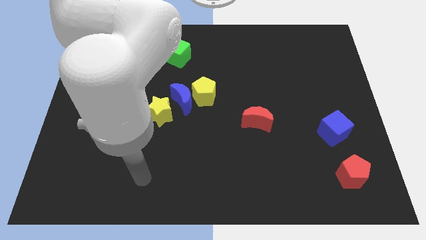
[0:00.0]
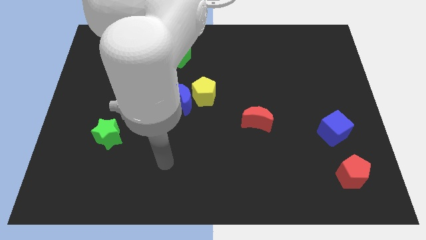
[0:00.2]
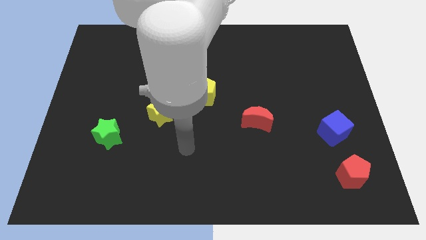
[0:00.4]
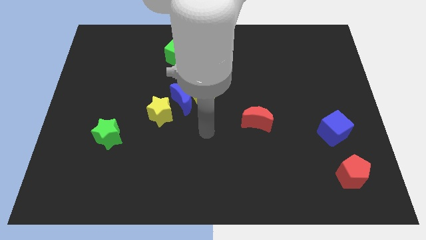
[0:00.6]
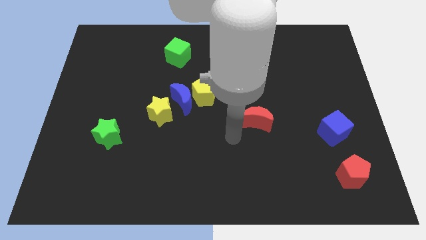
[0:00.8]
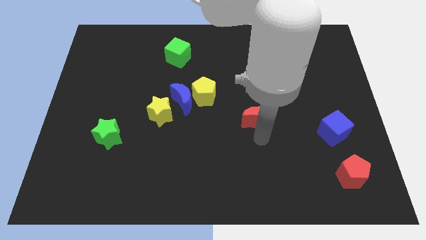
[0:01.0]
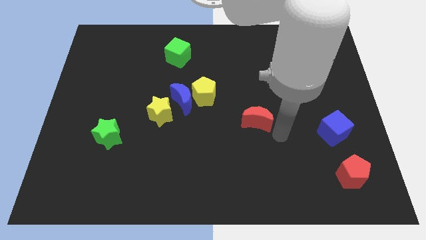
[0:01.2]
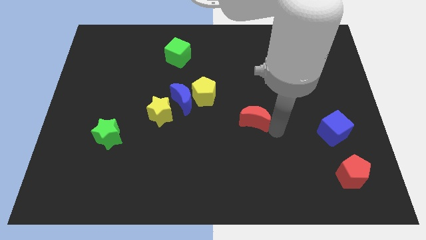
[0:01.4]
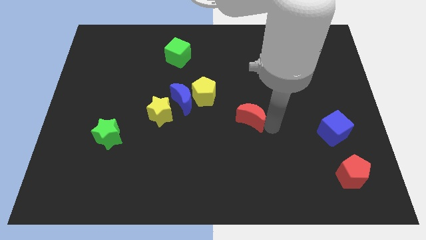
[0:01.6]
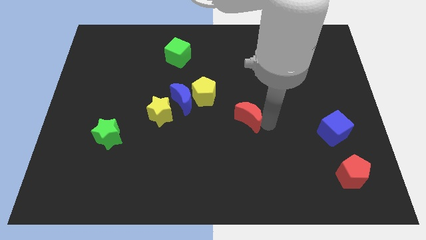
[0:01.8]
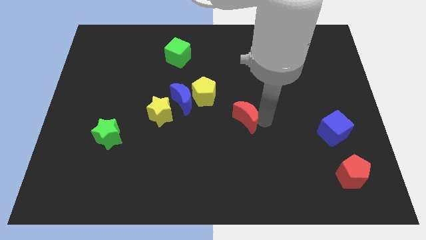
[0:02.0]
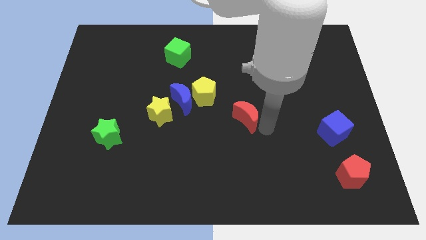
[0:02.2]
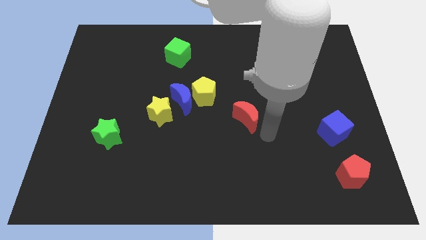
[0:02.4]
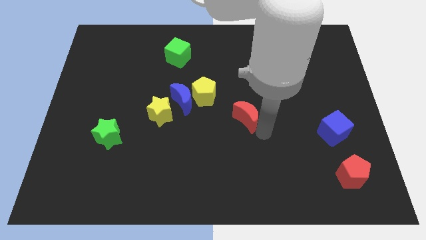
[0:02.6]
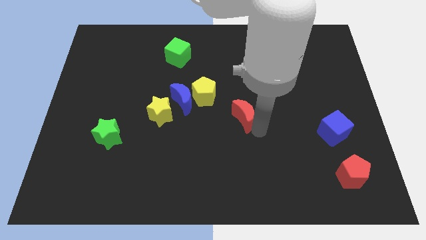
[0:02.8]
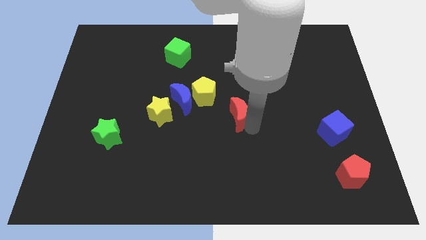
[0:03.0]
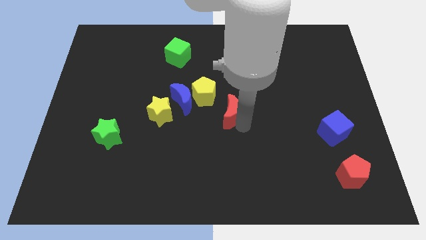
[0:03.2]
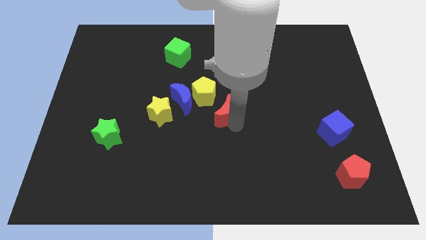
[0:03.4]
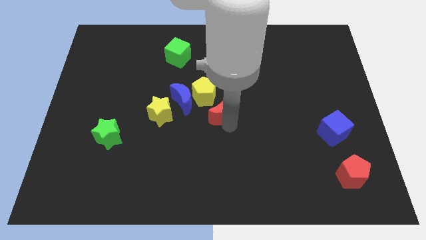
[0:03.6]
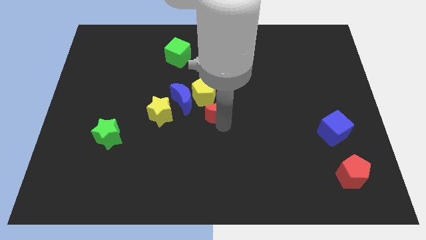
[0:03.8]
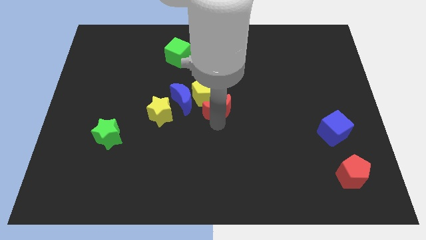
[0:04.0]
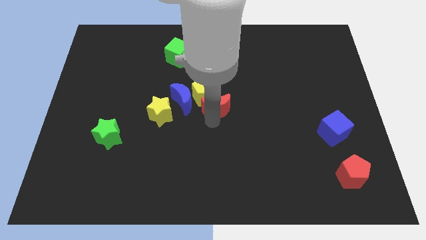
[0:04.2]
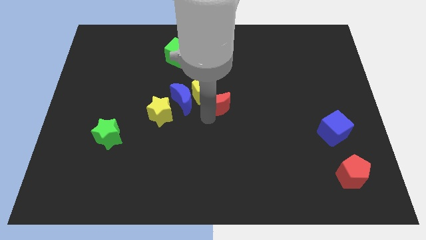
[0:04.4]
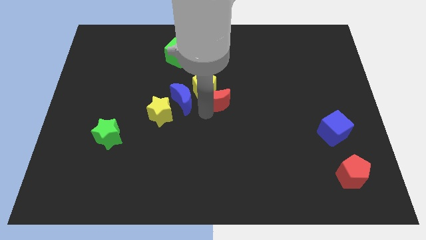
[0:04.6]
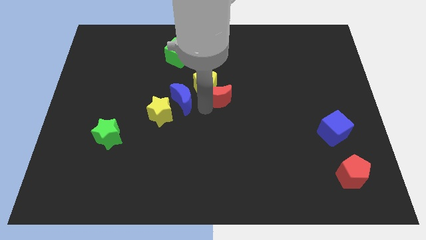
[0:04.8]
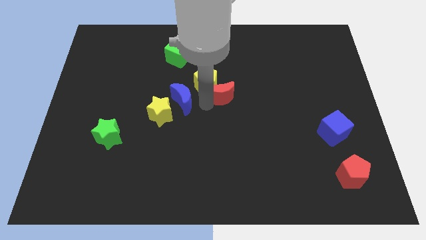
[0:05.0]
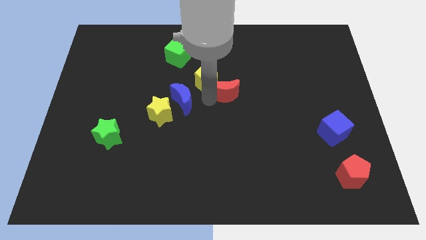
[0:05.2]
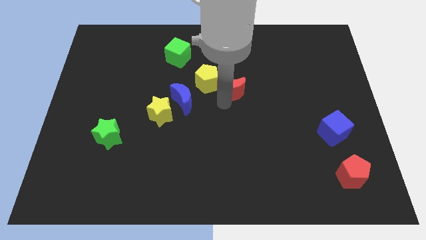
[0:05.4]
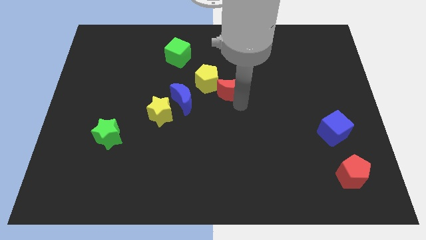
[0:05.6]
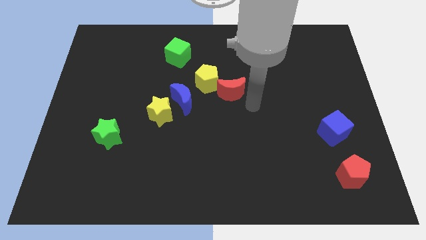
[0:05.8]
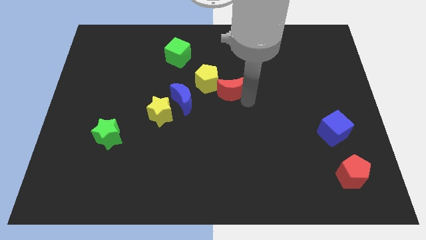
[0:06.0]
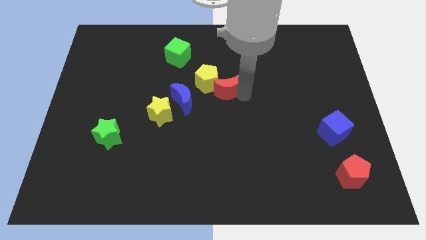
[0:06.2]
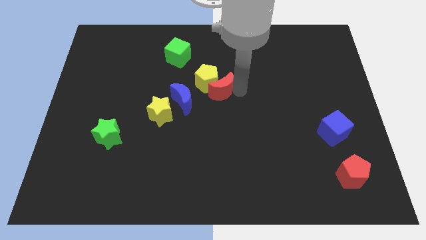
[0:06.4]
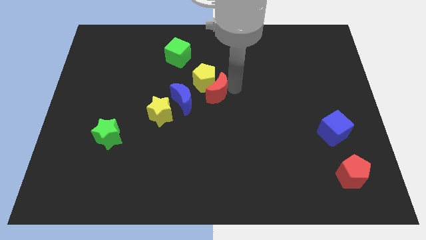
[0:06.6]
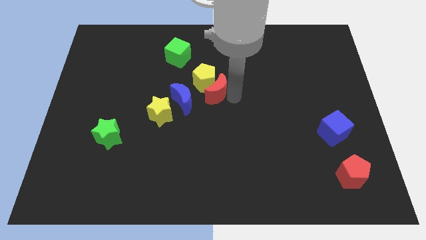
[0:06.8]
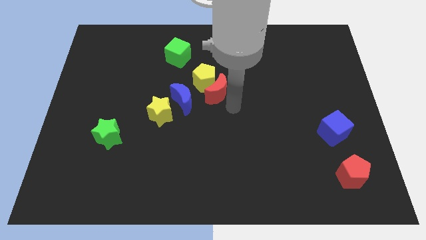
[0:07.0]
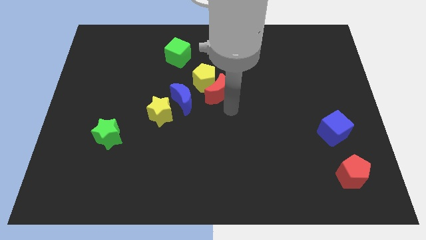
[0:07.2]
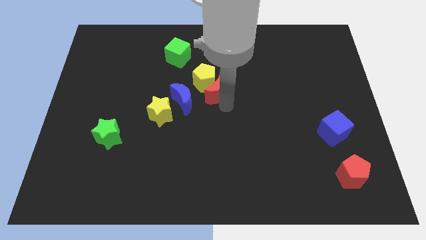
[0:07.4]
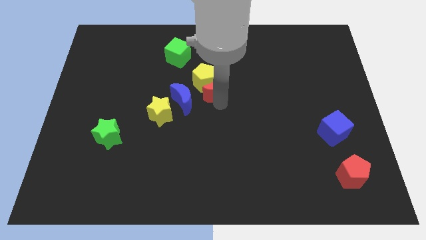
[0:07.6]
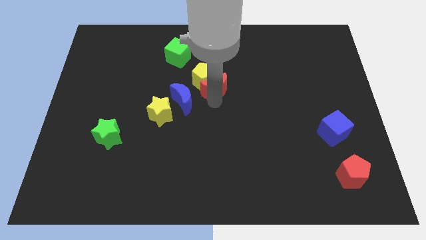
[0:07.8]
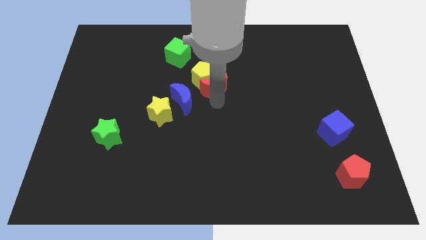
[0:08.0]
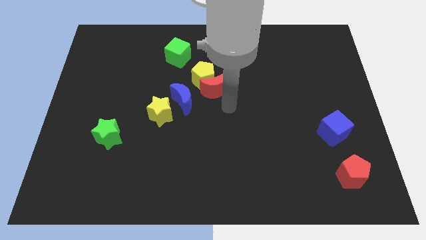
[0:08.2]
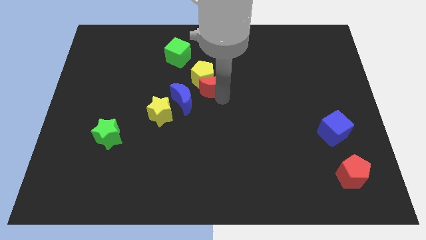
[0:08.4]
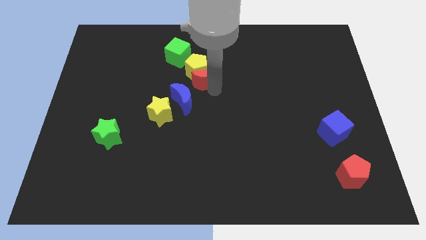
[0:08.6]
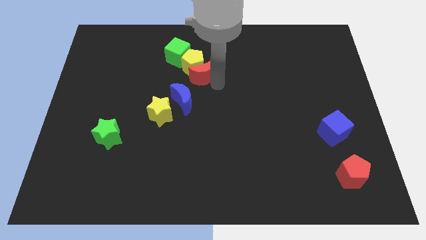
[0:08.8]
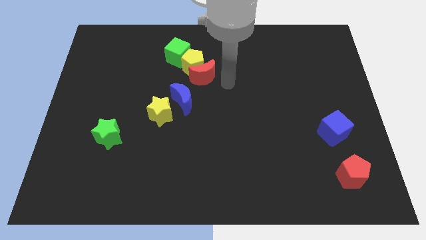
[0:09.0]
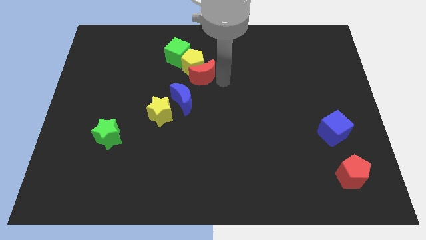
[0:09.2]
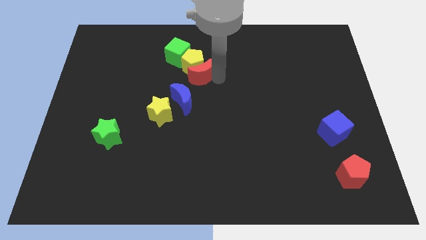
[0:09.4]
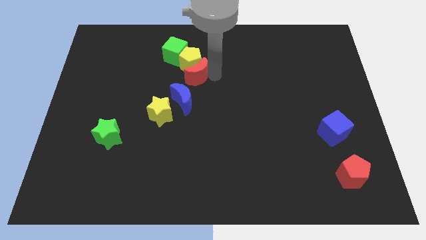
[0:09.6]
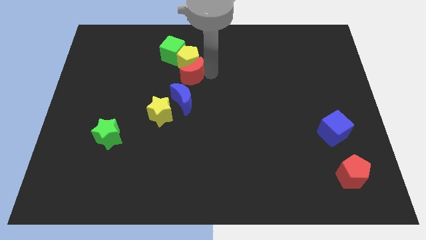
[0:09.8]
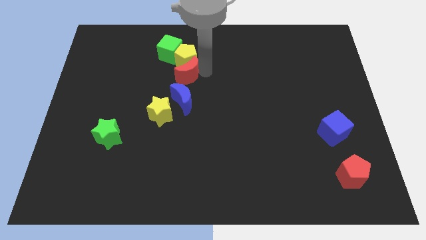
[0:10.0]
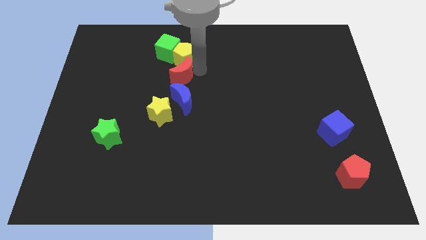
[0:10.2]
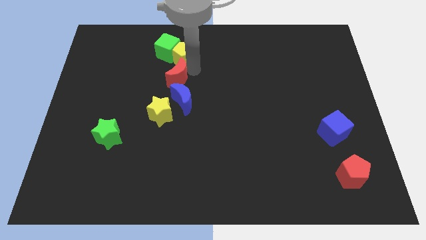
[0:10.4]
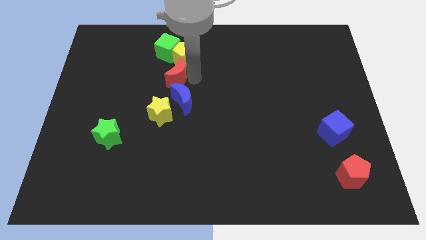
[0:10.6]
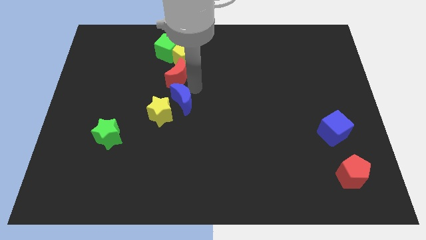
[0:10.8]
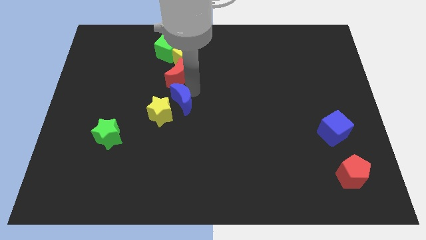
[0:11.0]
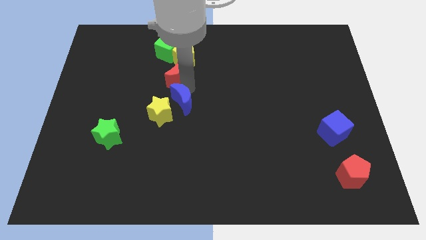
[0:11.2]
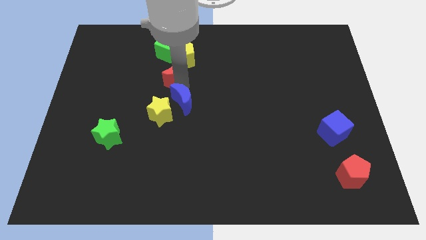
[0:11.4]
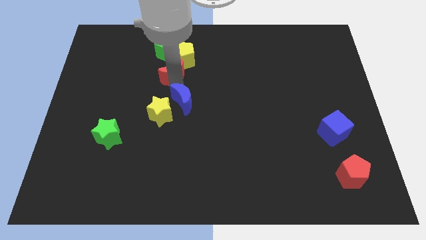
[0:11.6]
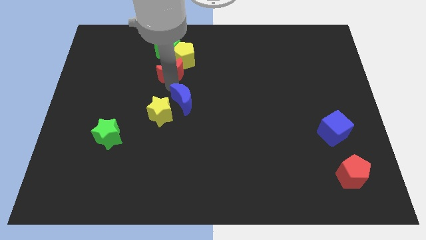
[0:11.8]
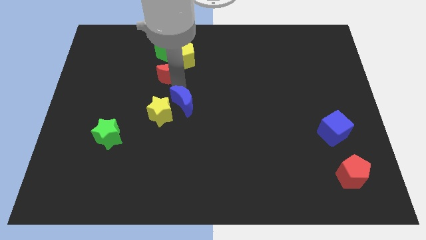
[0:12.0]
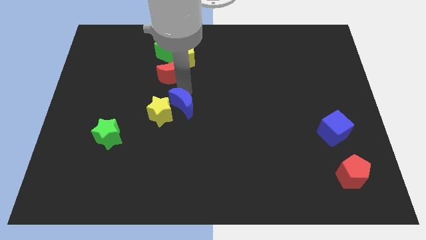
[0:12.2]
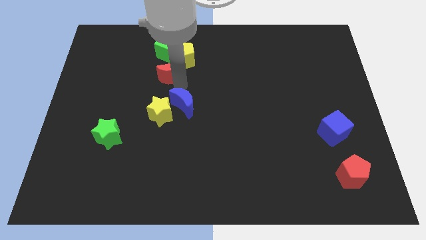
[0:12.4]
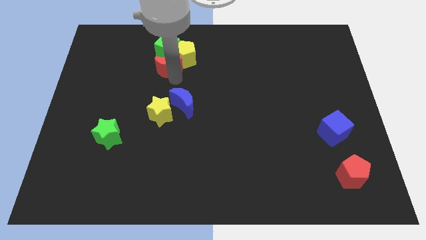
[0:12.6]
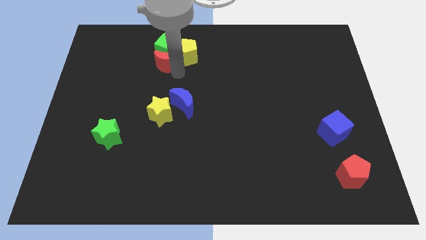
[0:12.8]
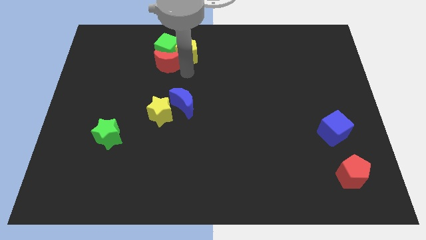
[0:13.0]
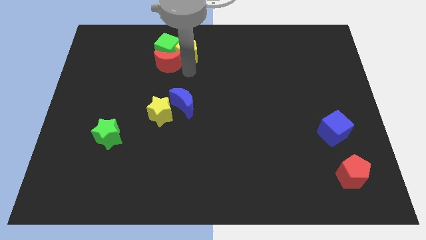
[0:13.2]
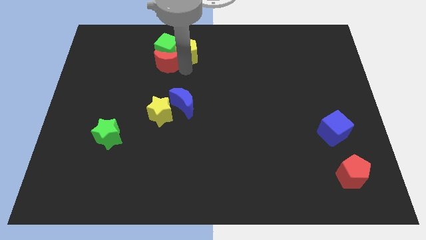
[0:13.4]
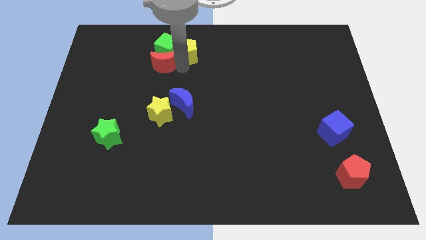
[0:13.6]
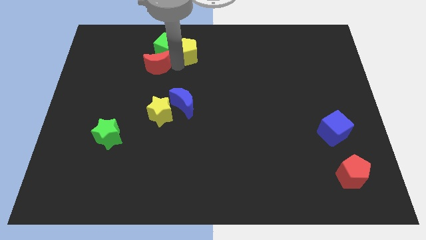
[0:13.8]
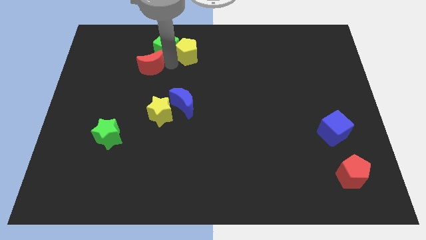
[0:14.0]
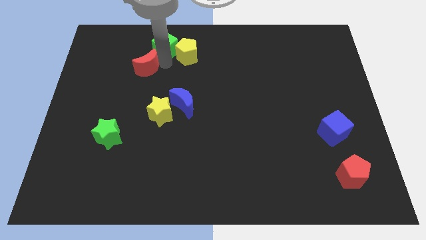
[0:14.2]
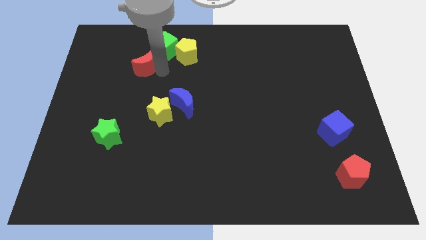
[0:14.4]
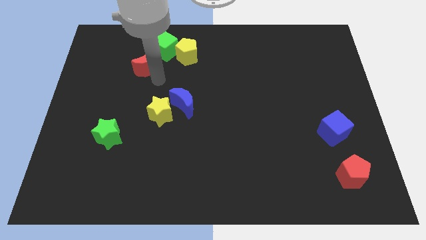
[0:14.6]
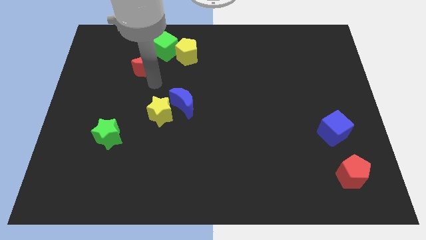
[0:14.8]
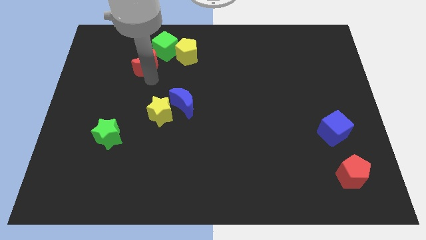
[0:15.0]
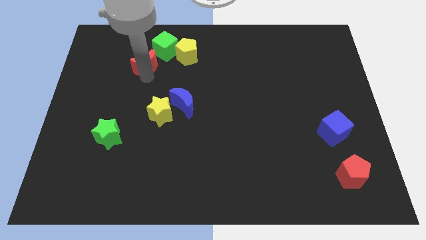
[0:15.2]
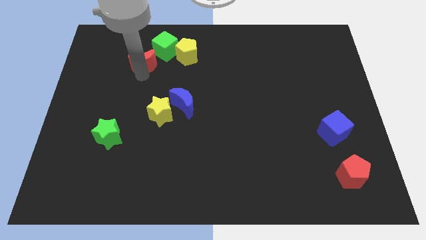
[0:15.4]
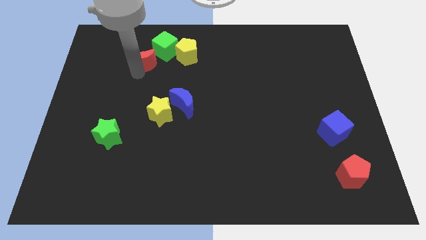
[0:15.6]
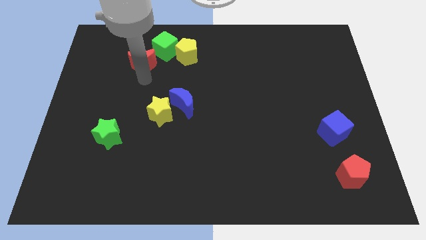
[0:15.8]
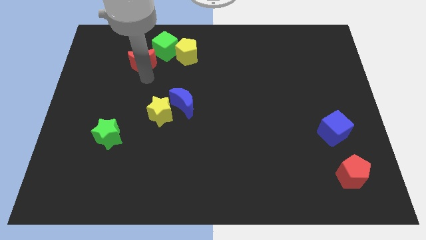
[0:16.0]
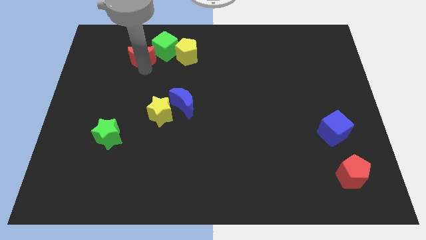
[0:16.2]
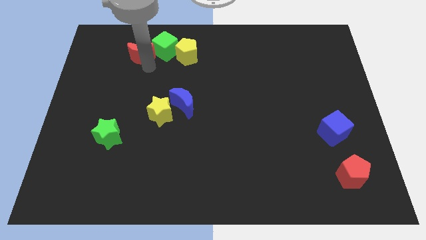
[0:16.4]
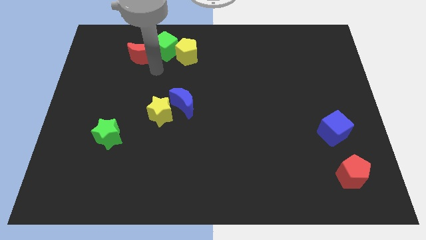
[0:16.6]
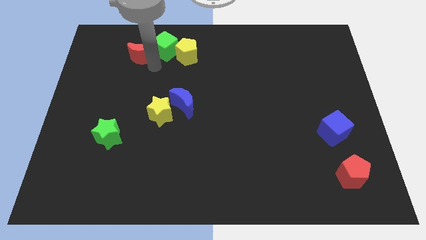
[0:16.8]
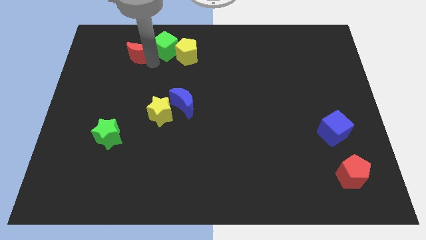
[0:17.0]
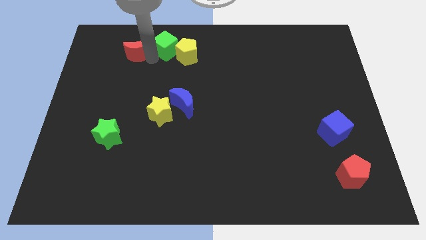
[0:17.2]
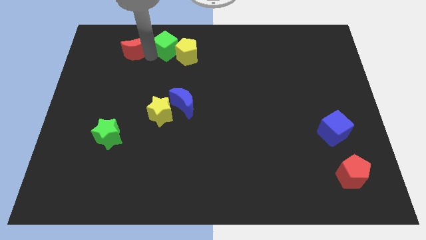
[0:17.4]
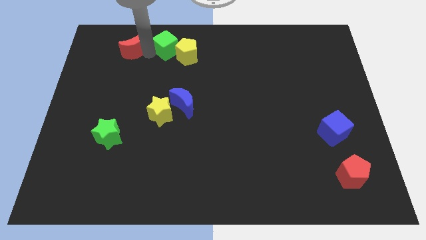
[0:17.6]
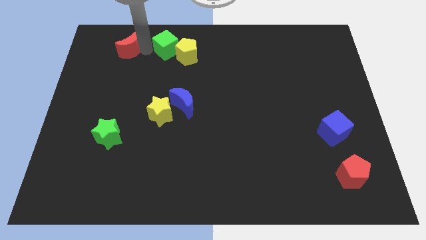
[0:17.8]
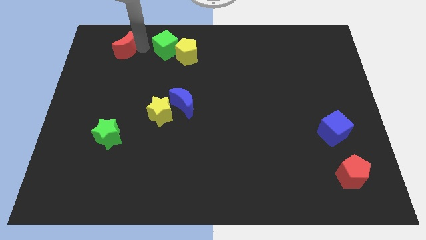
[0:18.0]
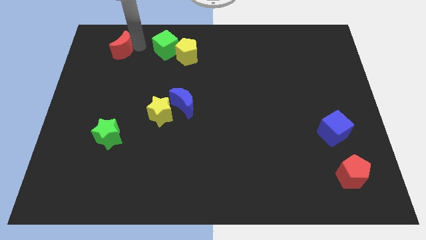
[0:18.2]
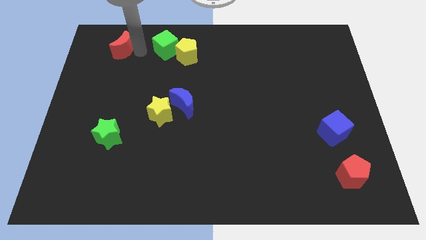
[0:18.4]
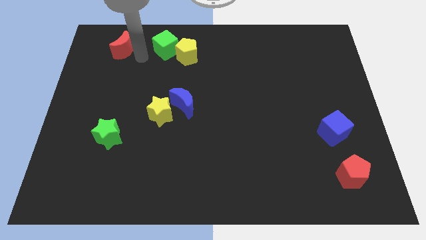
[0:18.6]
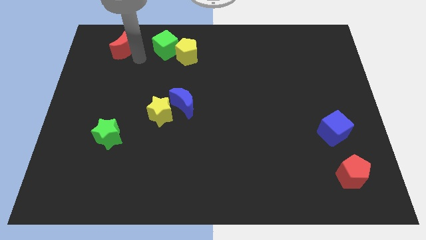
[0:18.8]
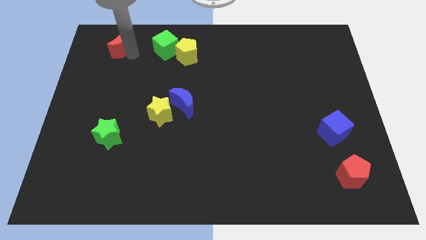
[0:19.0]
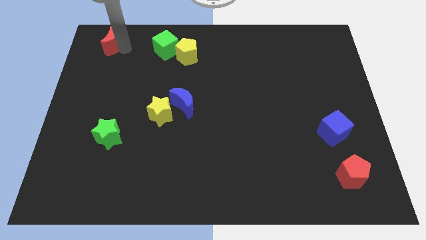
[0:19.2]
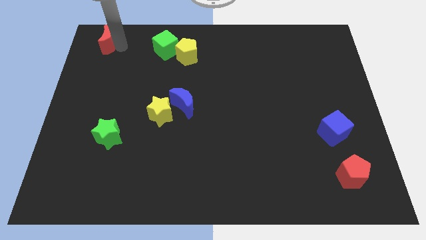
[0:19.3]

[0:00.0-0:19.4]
put the red moon to the top left
